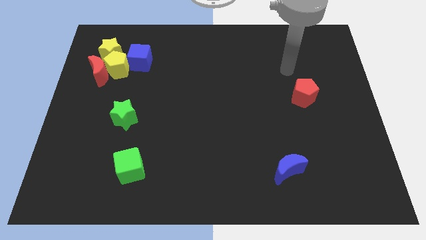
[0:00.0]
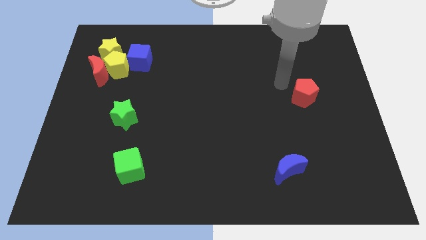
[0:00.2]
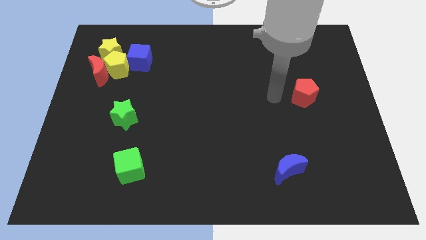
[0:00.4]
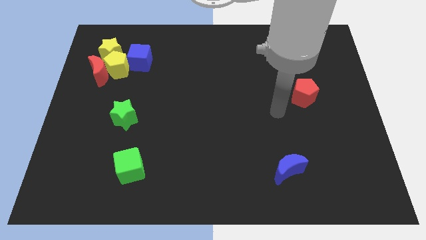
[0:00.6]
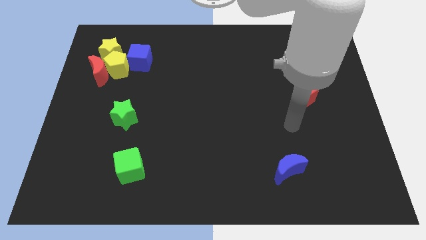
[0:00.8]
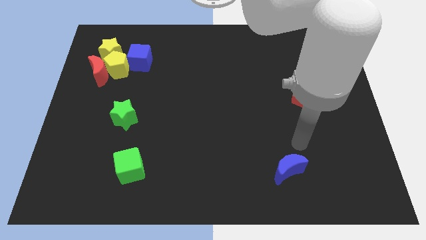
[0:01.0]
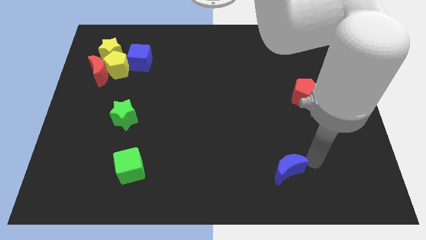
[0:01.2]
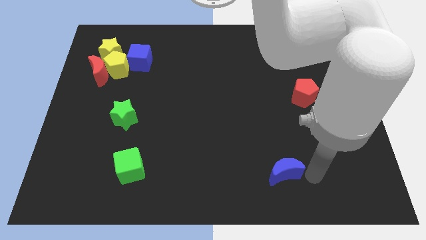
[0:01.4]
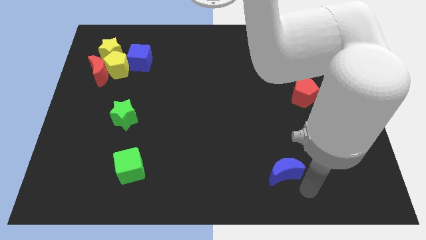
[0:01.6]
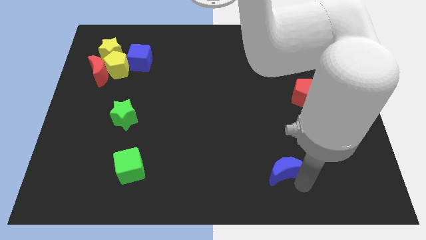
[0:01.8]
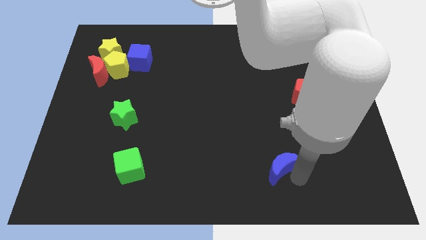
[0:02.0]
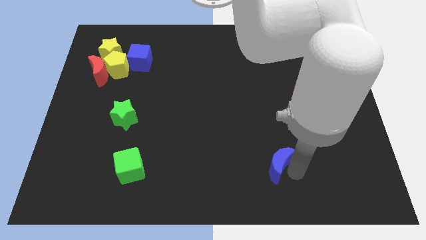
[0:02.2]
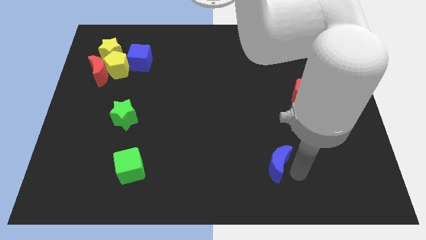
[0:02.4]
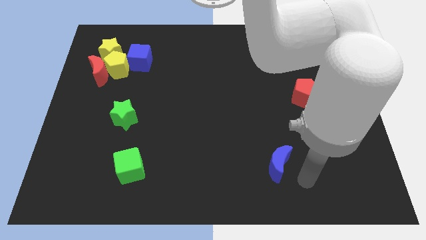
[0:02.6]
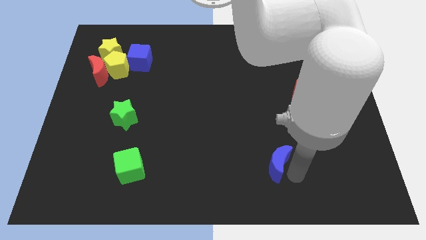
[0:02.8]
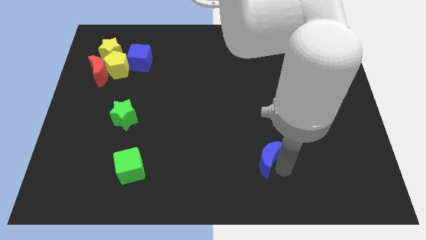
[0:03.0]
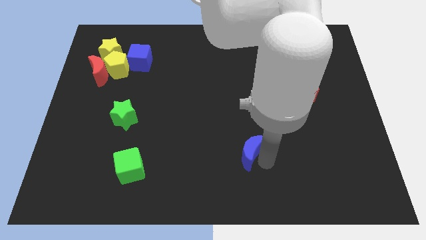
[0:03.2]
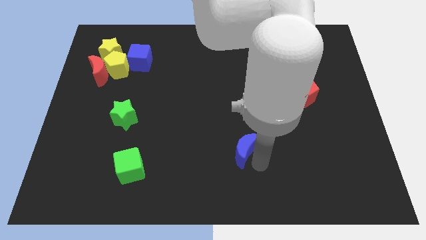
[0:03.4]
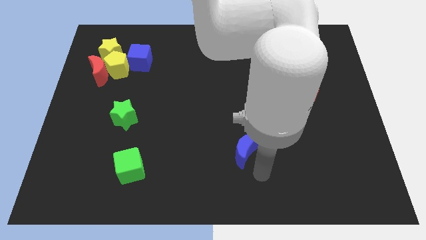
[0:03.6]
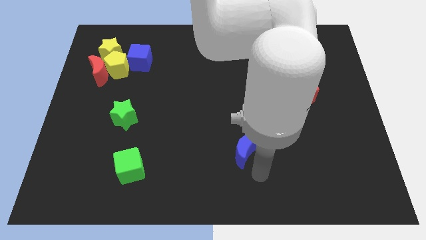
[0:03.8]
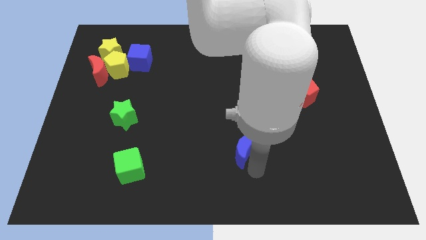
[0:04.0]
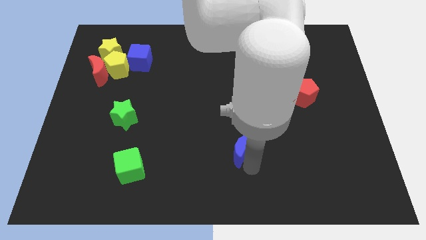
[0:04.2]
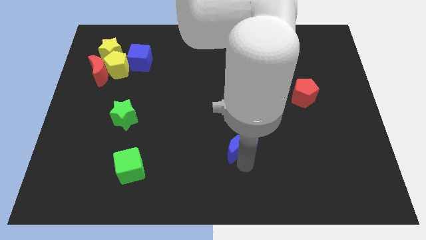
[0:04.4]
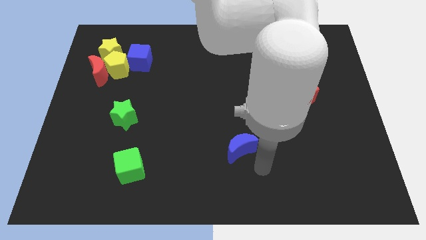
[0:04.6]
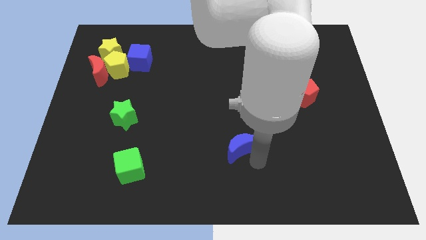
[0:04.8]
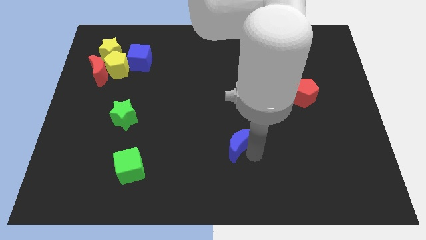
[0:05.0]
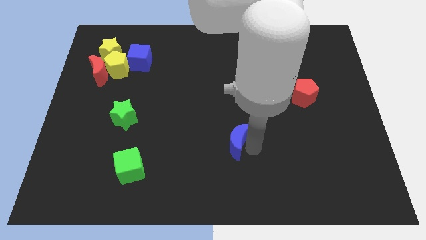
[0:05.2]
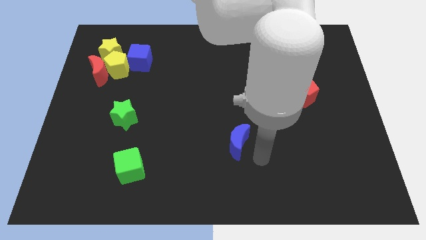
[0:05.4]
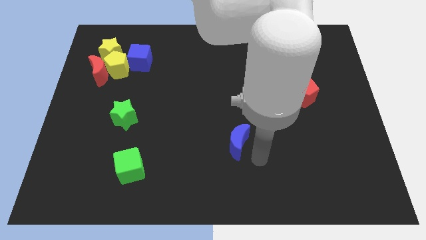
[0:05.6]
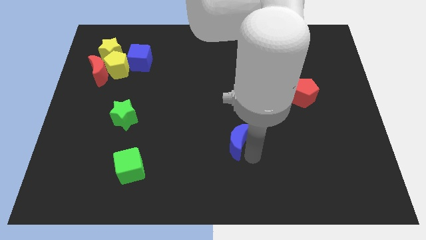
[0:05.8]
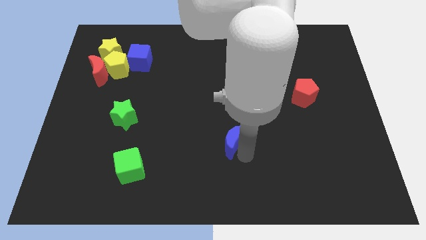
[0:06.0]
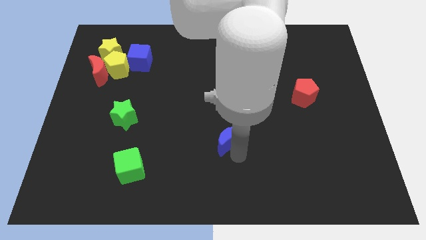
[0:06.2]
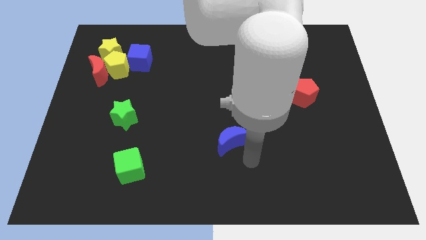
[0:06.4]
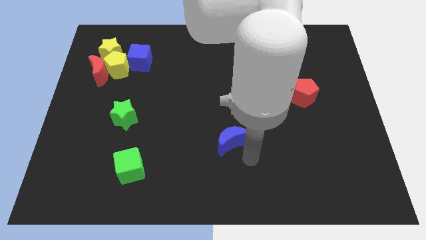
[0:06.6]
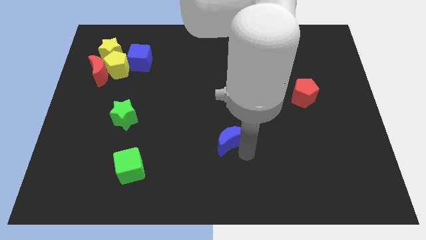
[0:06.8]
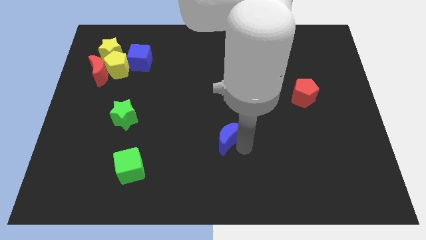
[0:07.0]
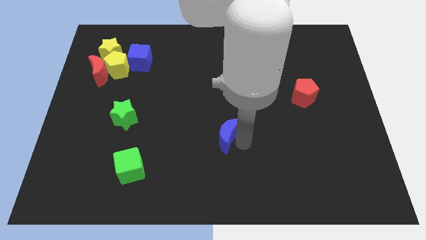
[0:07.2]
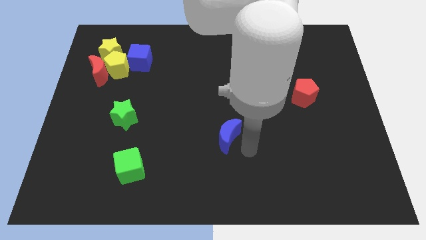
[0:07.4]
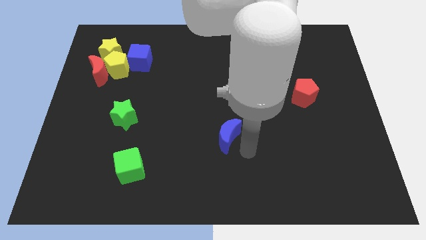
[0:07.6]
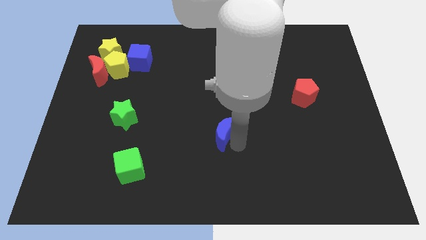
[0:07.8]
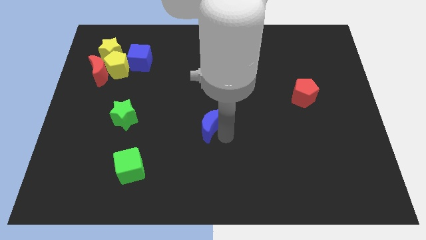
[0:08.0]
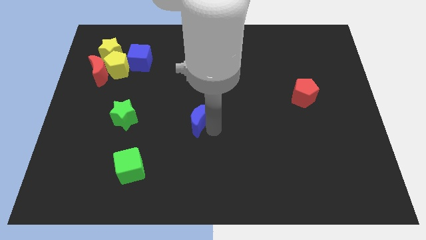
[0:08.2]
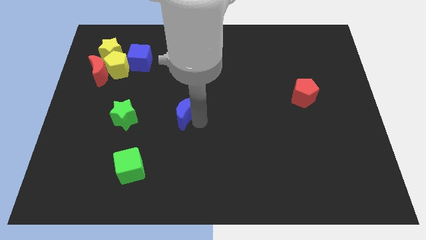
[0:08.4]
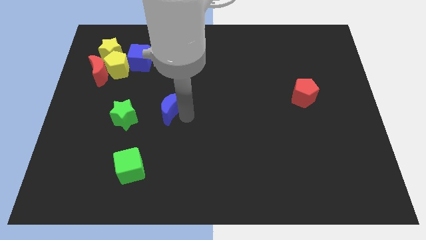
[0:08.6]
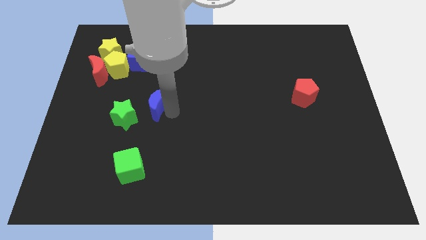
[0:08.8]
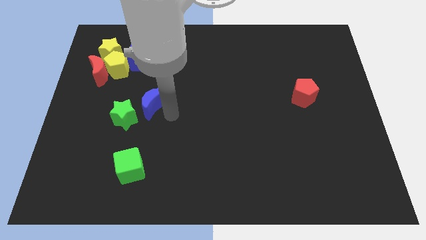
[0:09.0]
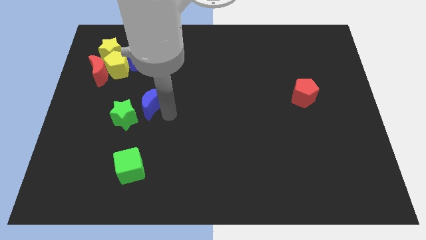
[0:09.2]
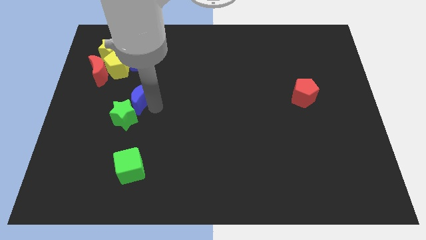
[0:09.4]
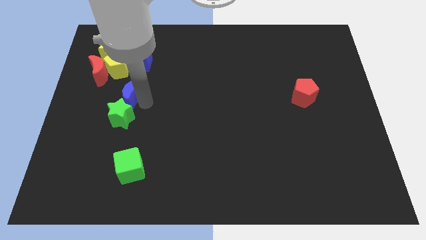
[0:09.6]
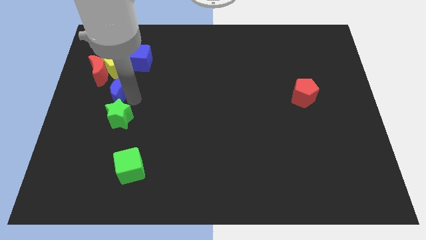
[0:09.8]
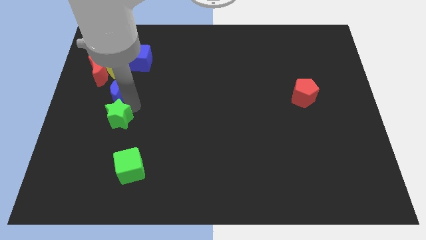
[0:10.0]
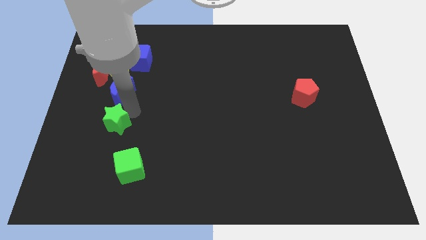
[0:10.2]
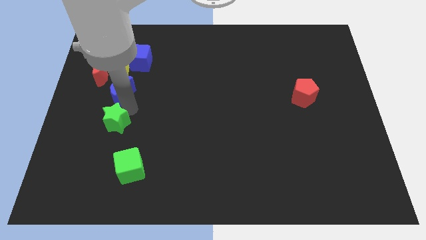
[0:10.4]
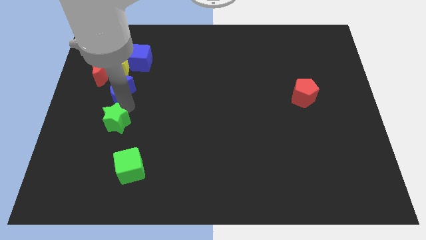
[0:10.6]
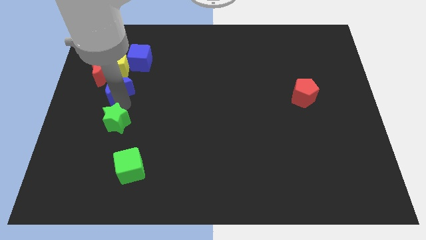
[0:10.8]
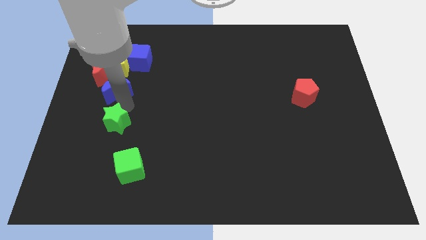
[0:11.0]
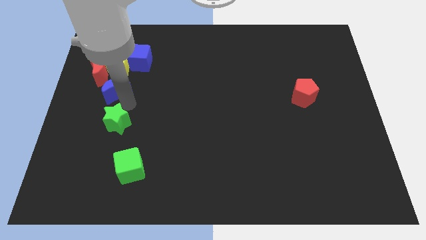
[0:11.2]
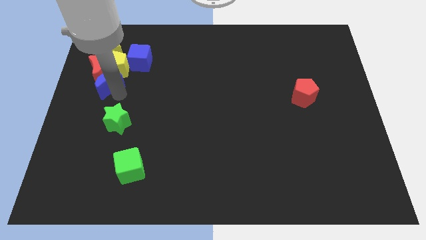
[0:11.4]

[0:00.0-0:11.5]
move the blue moon to the red moon

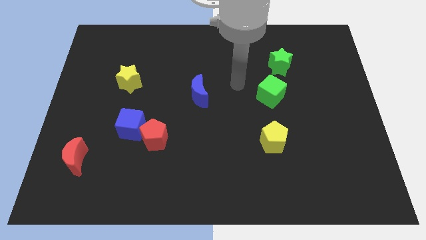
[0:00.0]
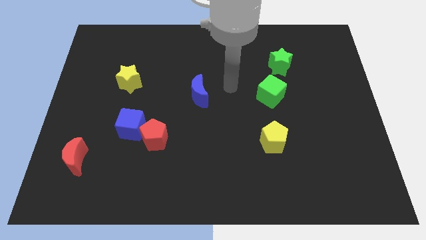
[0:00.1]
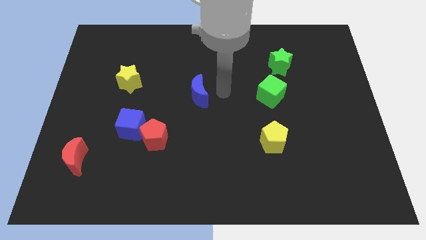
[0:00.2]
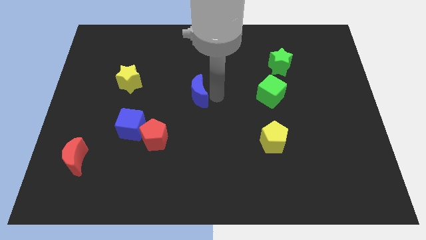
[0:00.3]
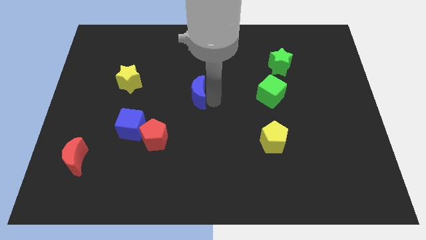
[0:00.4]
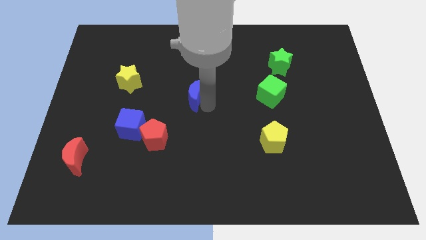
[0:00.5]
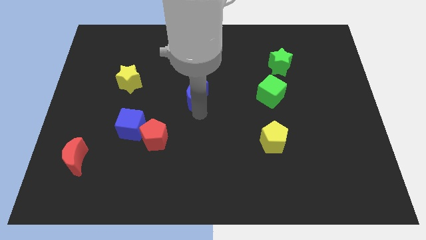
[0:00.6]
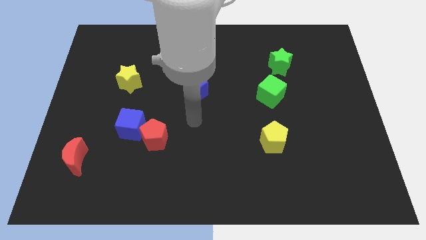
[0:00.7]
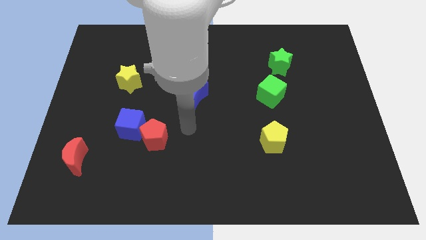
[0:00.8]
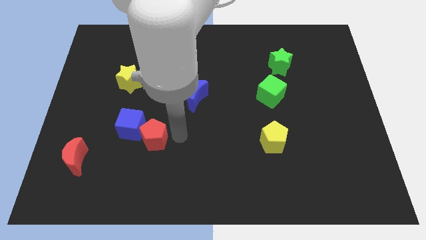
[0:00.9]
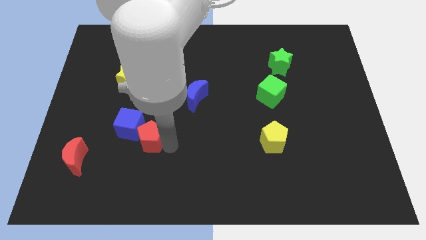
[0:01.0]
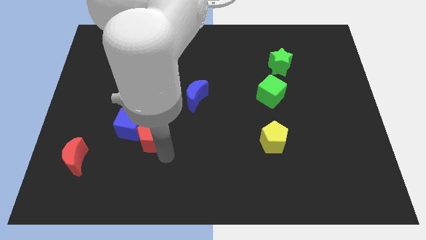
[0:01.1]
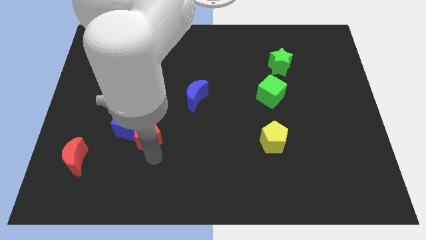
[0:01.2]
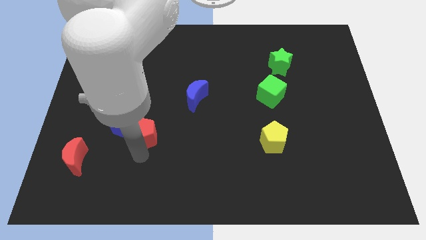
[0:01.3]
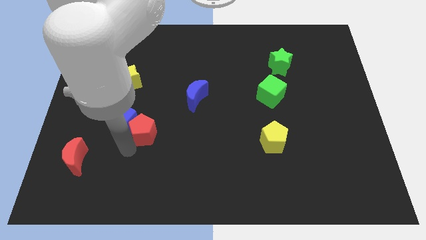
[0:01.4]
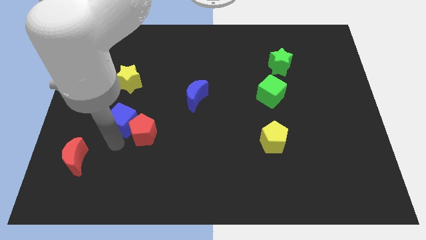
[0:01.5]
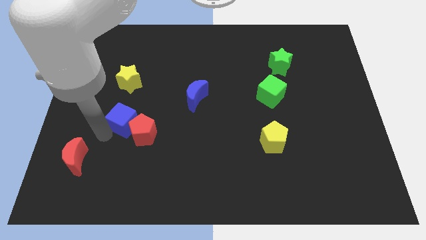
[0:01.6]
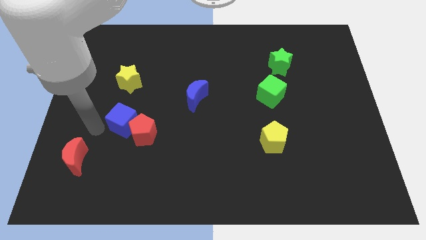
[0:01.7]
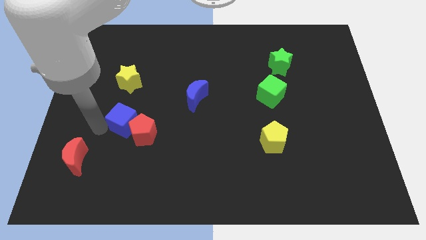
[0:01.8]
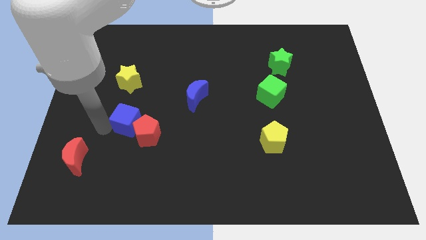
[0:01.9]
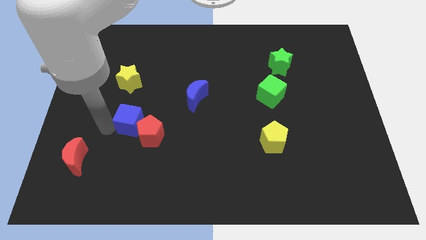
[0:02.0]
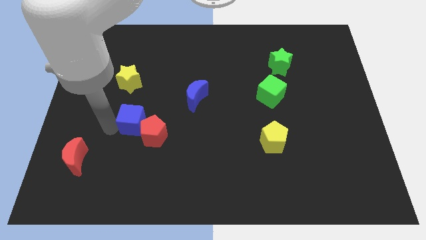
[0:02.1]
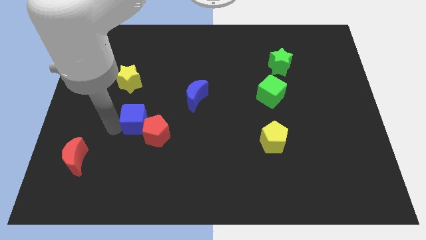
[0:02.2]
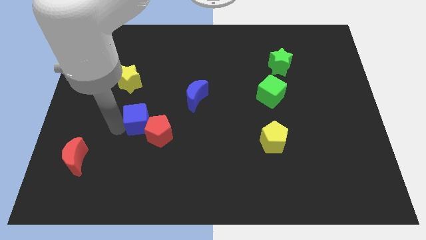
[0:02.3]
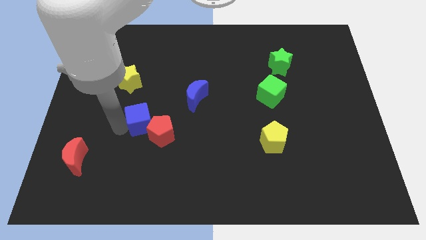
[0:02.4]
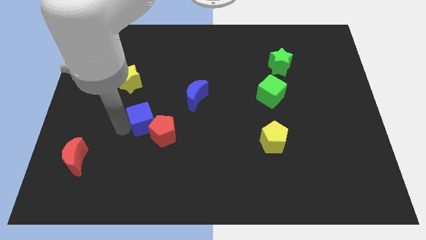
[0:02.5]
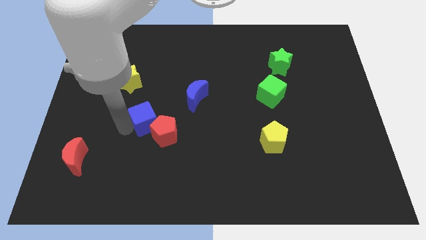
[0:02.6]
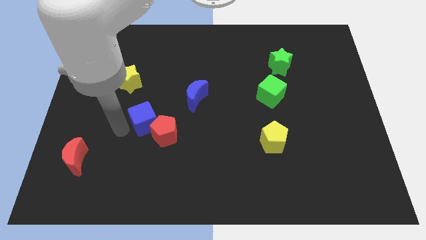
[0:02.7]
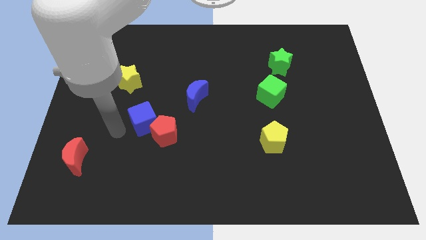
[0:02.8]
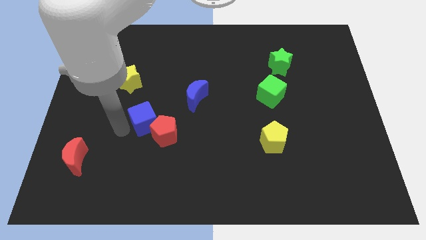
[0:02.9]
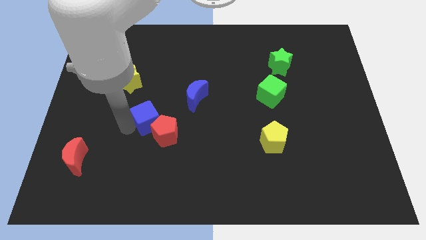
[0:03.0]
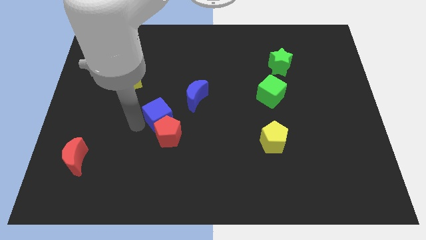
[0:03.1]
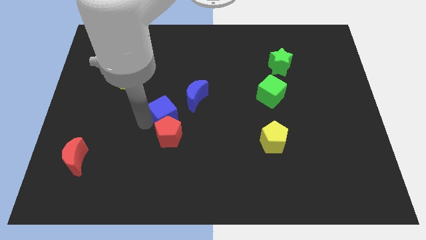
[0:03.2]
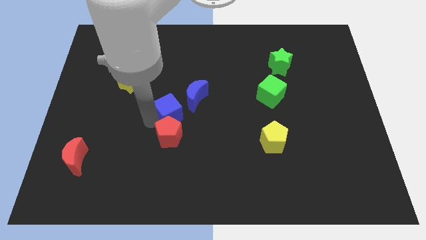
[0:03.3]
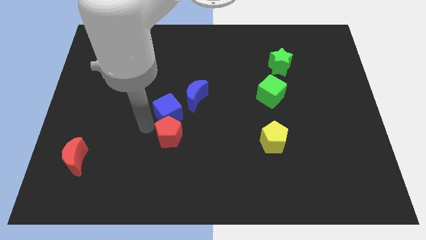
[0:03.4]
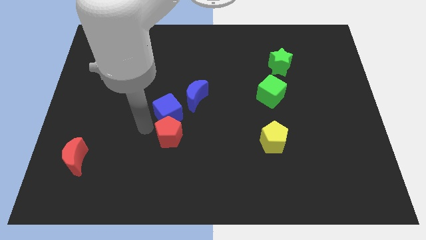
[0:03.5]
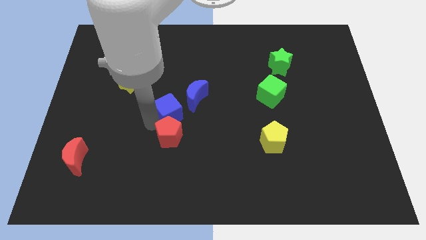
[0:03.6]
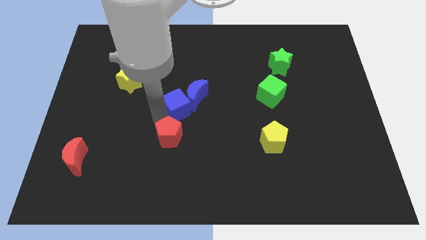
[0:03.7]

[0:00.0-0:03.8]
put the blue cube close to the blue moon
